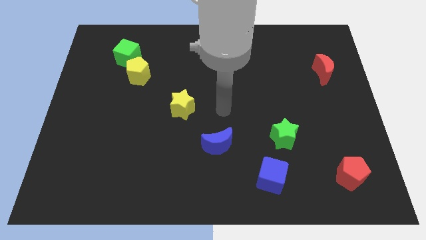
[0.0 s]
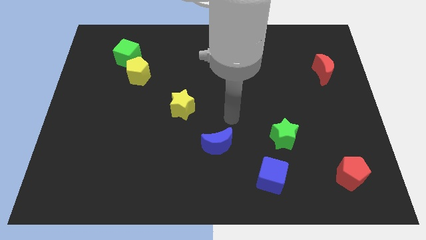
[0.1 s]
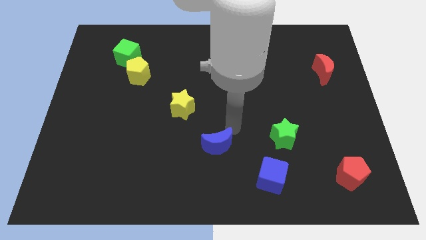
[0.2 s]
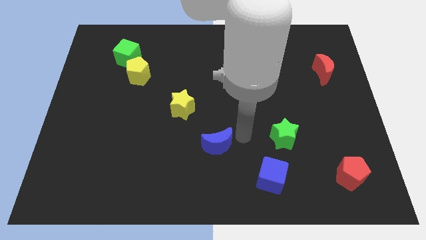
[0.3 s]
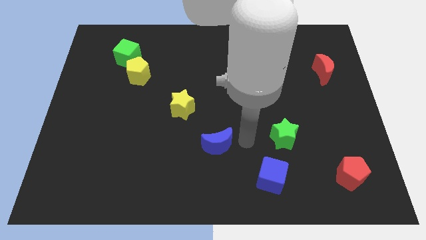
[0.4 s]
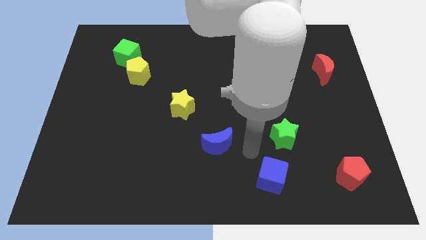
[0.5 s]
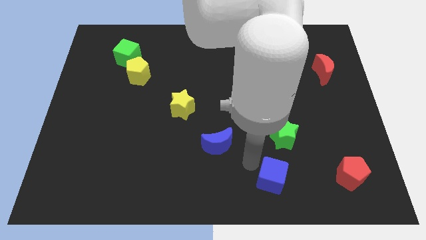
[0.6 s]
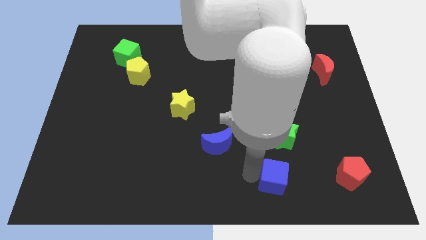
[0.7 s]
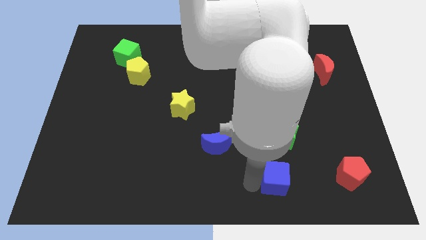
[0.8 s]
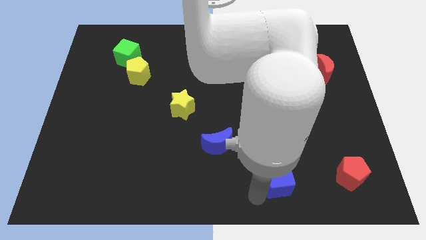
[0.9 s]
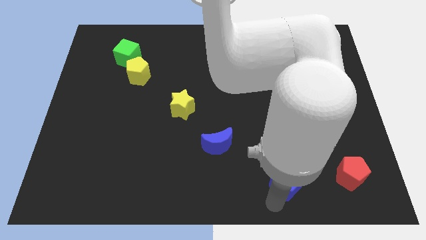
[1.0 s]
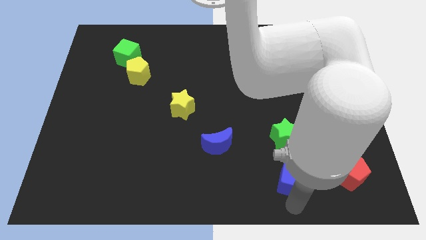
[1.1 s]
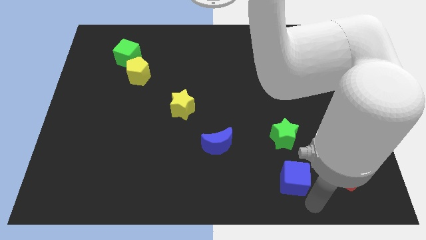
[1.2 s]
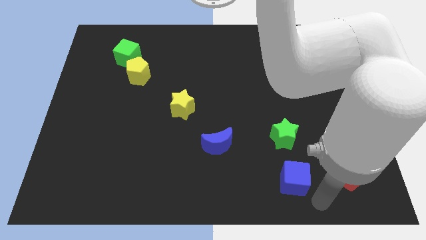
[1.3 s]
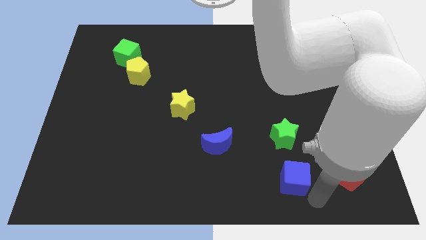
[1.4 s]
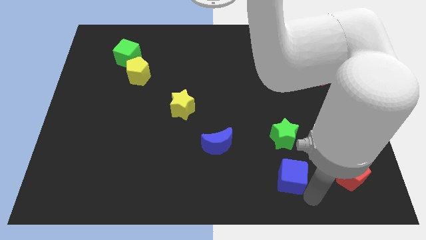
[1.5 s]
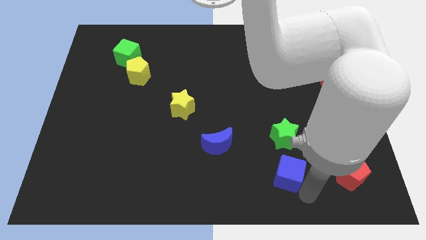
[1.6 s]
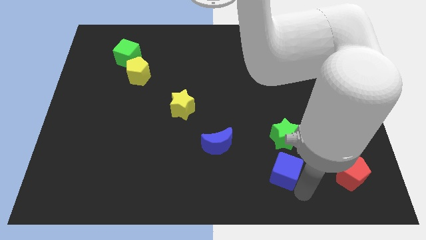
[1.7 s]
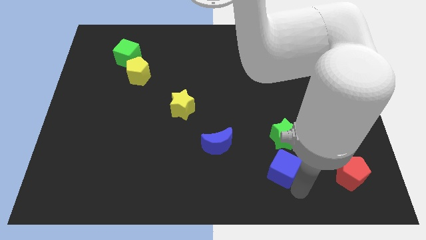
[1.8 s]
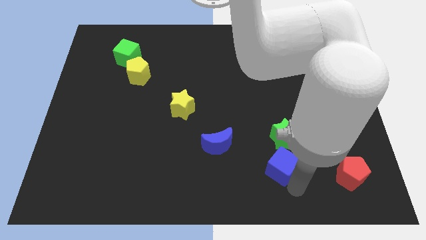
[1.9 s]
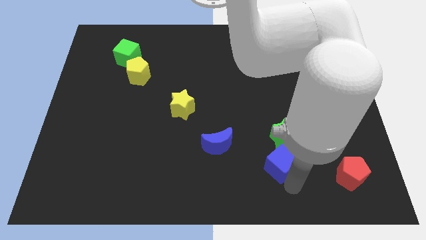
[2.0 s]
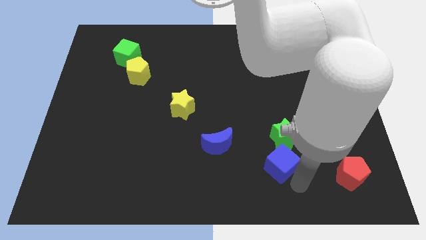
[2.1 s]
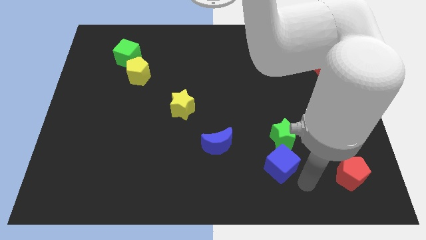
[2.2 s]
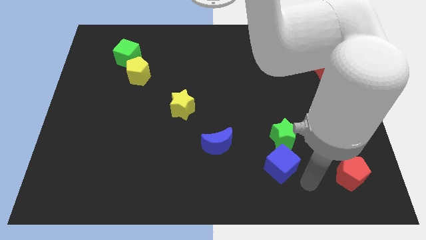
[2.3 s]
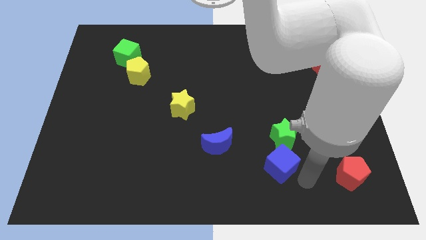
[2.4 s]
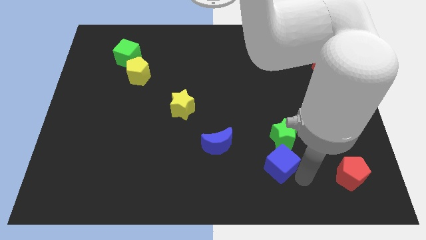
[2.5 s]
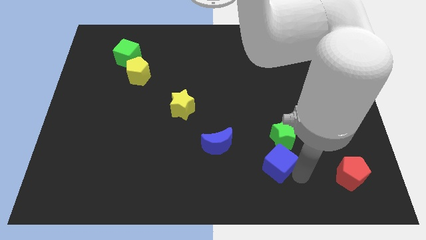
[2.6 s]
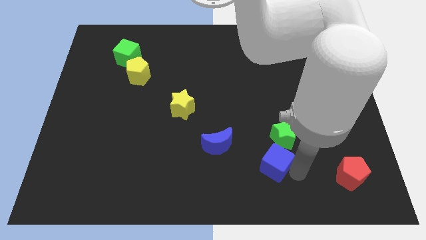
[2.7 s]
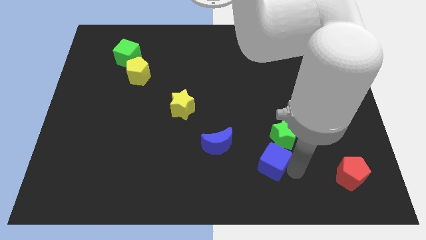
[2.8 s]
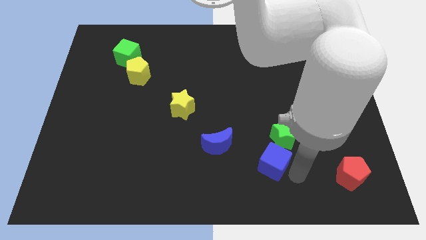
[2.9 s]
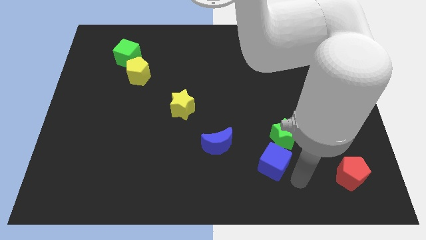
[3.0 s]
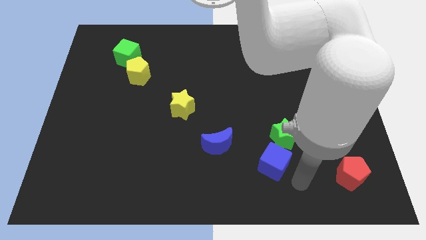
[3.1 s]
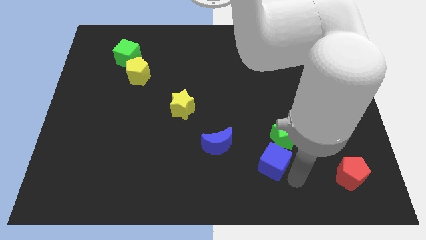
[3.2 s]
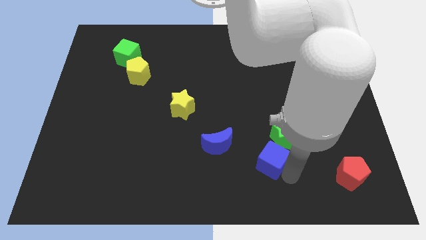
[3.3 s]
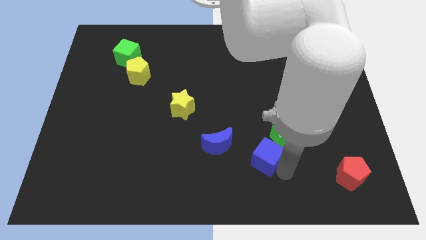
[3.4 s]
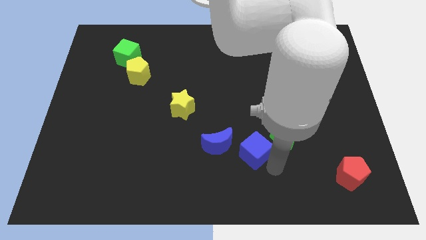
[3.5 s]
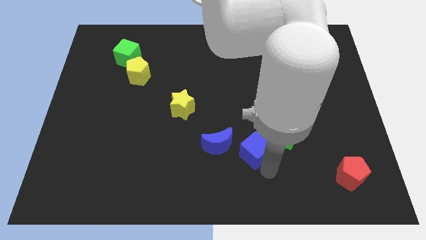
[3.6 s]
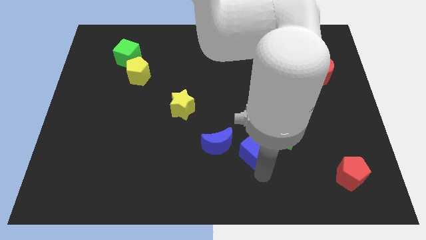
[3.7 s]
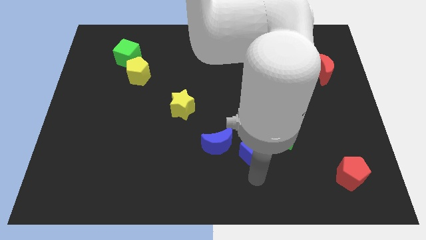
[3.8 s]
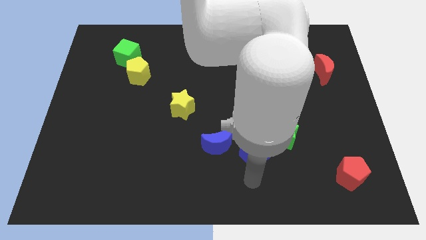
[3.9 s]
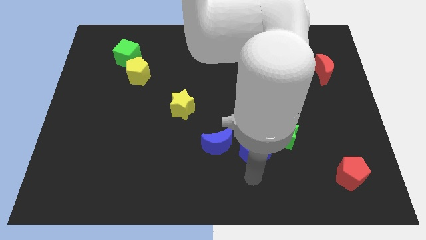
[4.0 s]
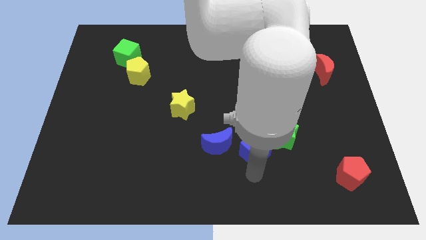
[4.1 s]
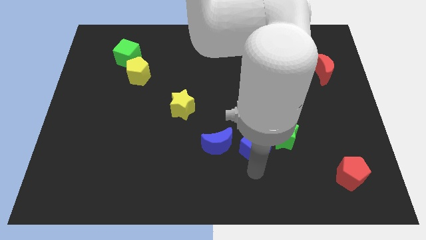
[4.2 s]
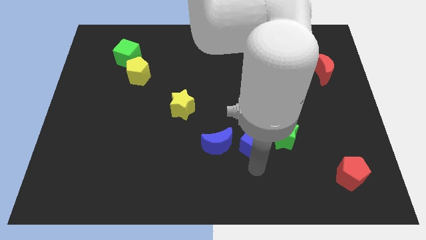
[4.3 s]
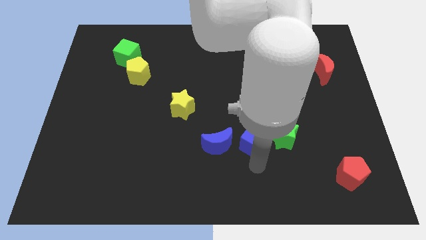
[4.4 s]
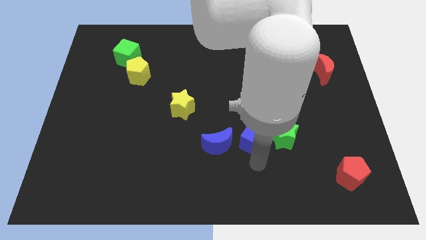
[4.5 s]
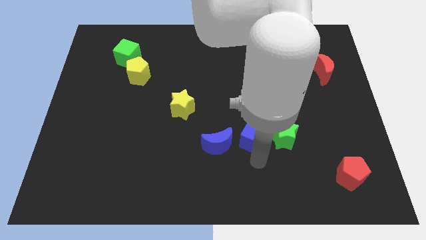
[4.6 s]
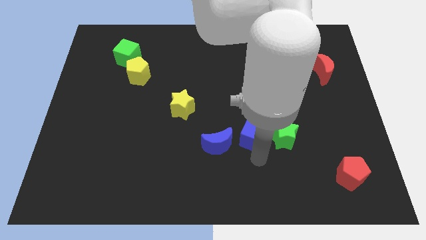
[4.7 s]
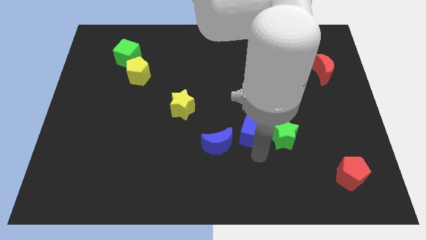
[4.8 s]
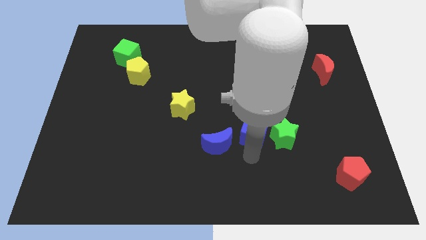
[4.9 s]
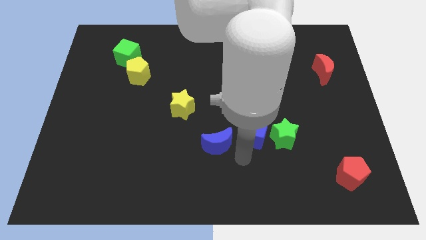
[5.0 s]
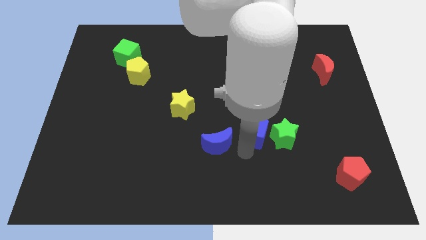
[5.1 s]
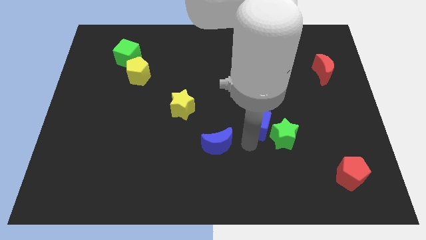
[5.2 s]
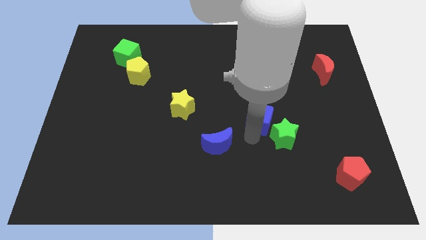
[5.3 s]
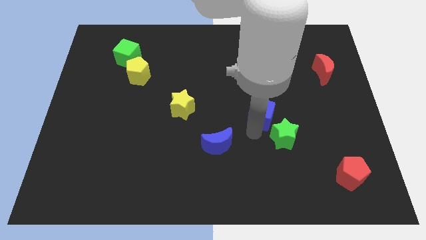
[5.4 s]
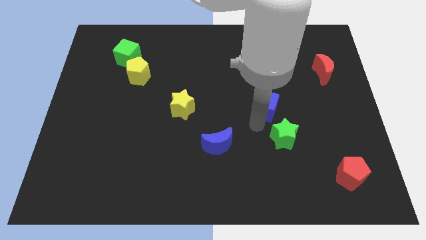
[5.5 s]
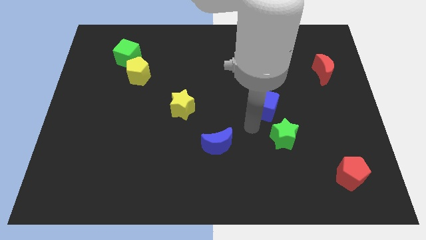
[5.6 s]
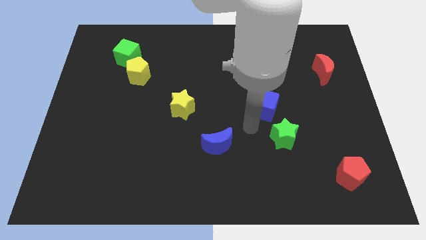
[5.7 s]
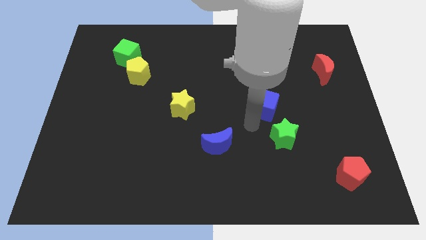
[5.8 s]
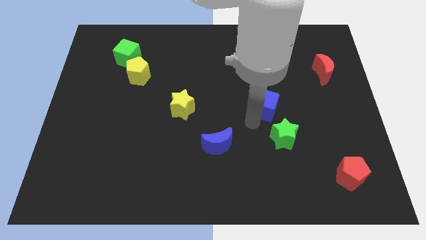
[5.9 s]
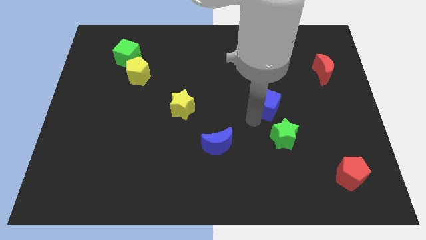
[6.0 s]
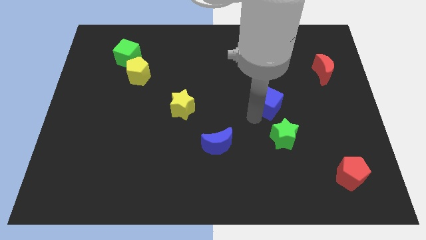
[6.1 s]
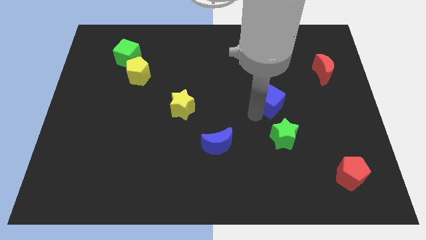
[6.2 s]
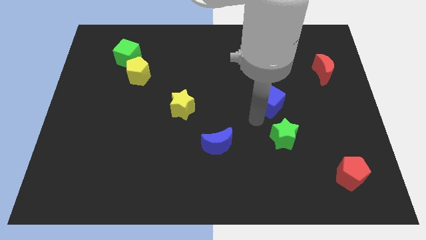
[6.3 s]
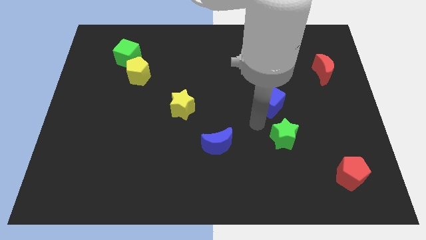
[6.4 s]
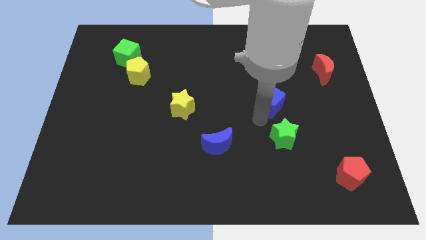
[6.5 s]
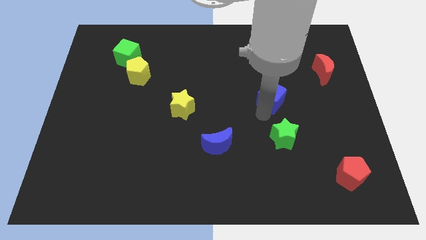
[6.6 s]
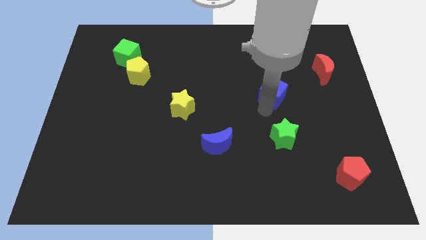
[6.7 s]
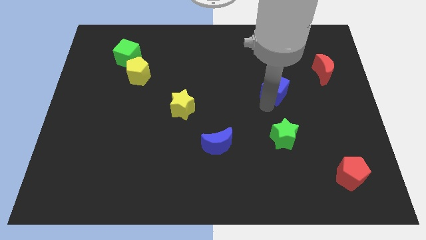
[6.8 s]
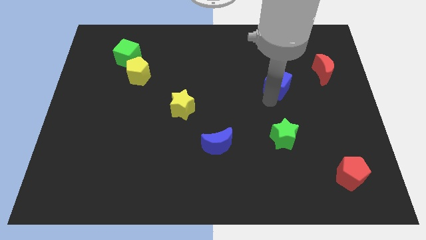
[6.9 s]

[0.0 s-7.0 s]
push the blue cube to the left of the red moon

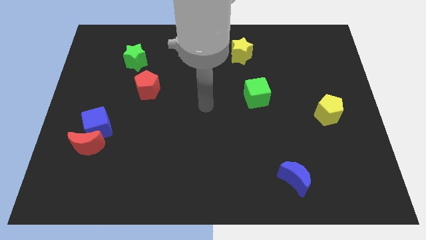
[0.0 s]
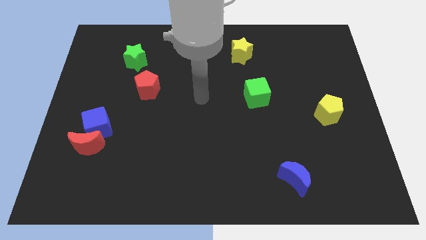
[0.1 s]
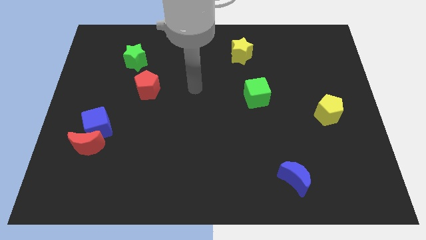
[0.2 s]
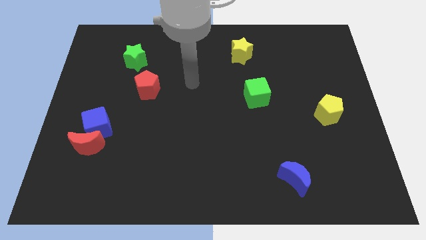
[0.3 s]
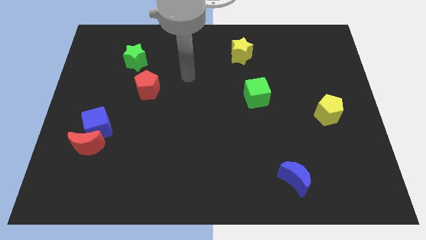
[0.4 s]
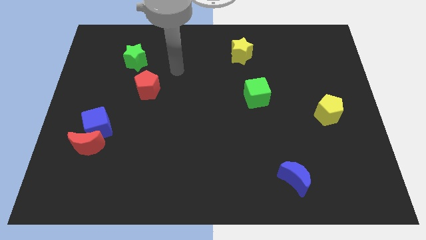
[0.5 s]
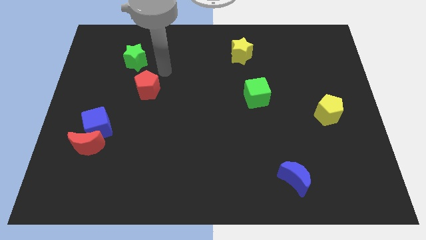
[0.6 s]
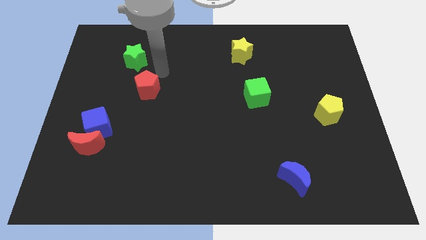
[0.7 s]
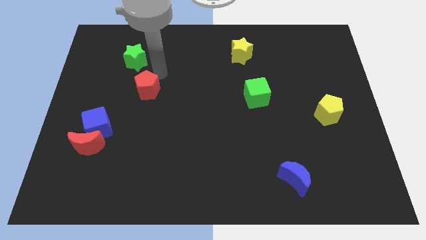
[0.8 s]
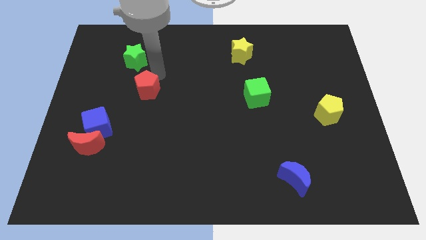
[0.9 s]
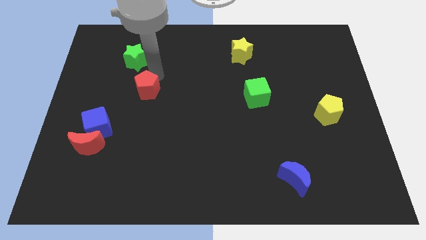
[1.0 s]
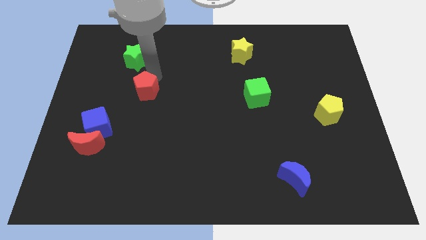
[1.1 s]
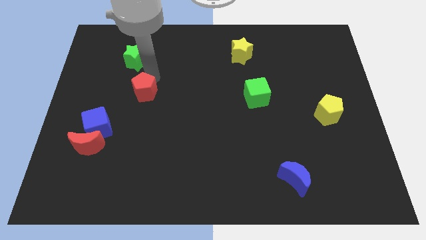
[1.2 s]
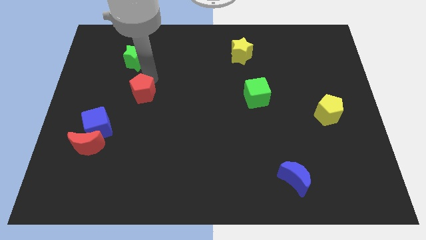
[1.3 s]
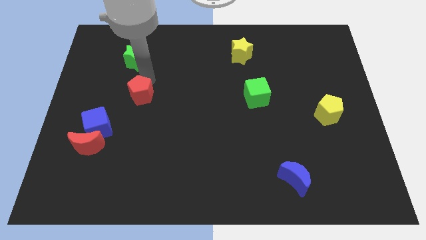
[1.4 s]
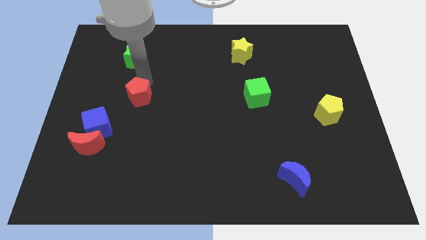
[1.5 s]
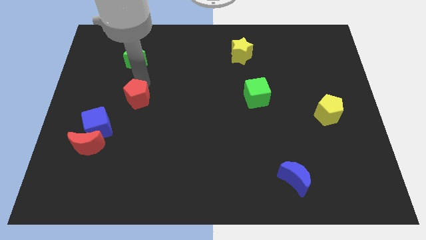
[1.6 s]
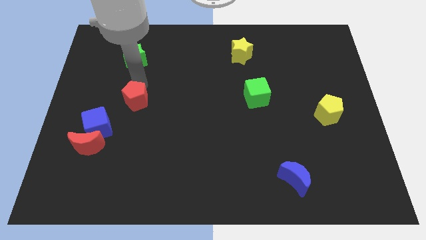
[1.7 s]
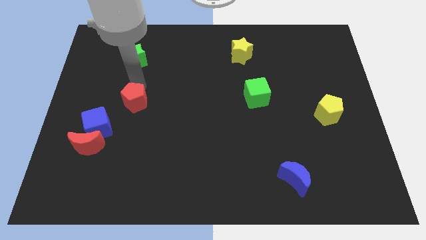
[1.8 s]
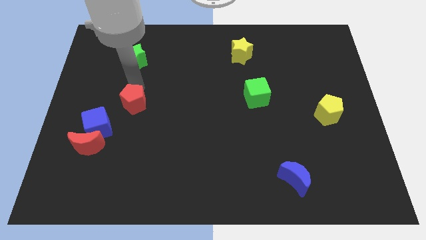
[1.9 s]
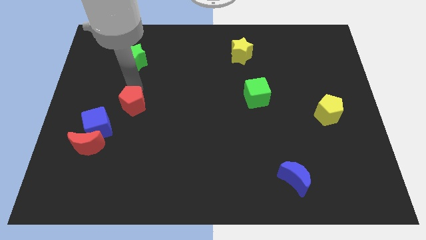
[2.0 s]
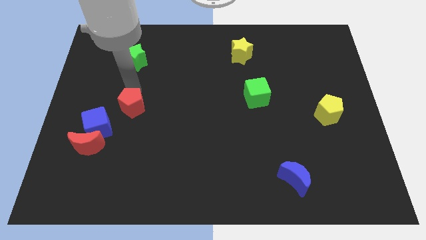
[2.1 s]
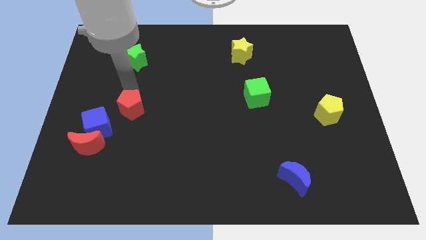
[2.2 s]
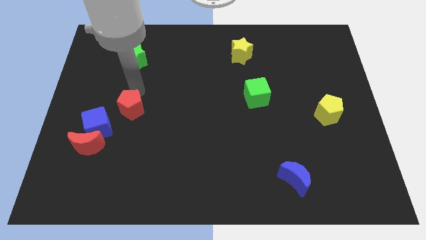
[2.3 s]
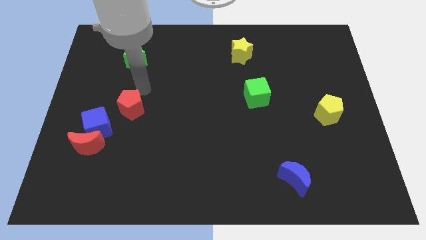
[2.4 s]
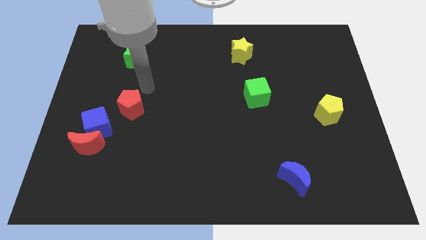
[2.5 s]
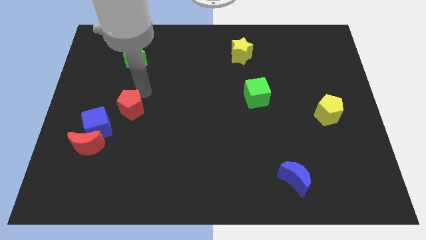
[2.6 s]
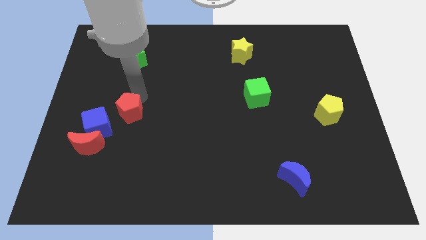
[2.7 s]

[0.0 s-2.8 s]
push the red pentagon diagonally up and to the right of the red moon
